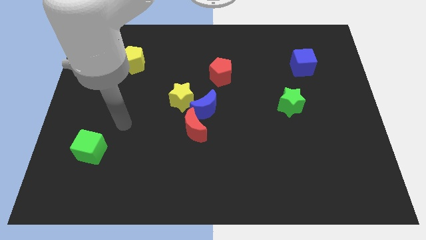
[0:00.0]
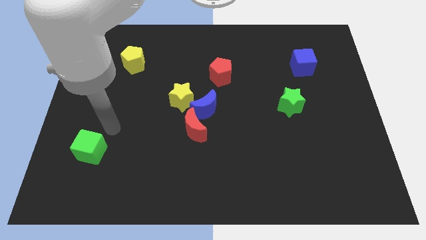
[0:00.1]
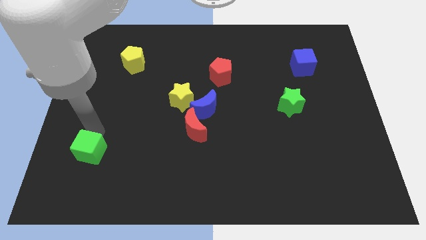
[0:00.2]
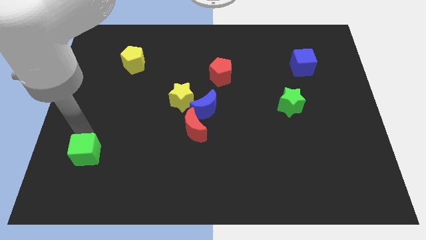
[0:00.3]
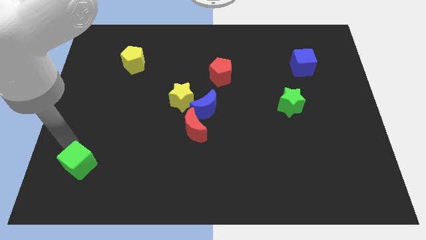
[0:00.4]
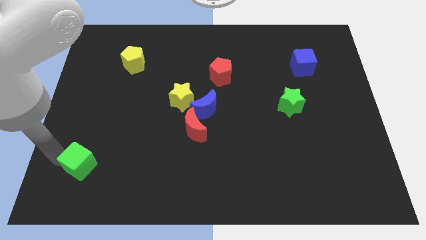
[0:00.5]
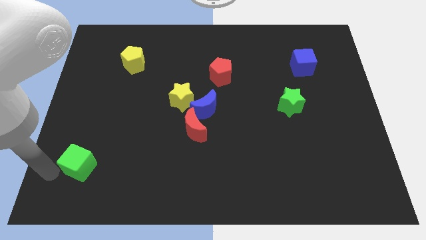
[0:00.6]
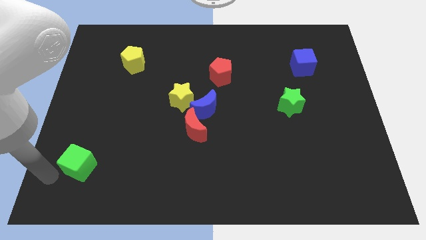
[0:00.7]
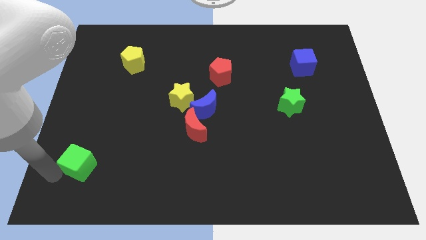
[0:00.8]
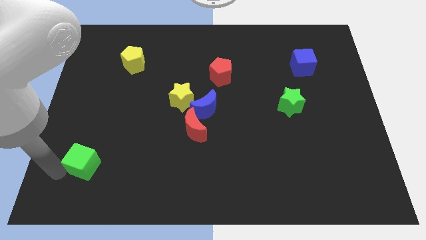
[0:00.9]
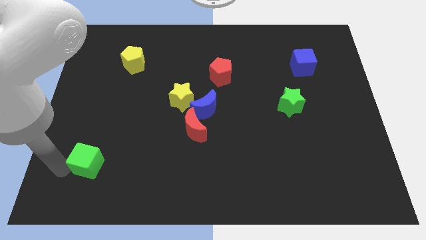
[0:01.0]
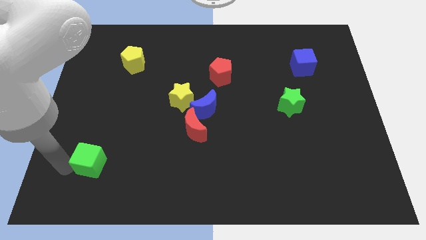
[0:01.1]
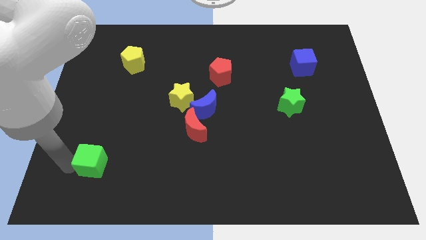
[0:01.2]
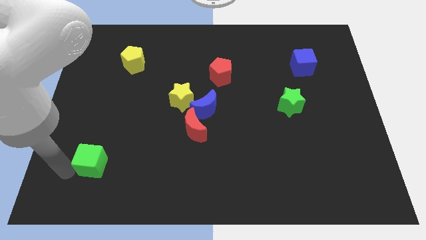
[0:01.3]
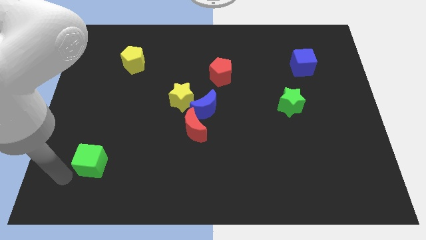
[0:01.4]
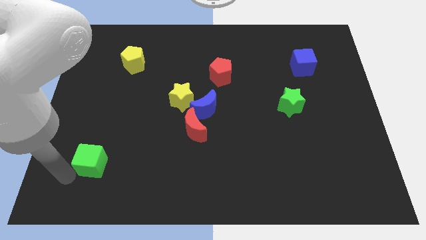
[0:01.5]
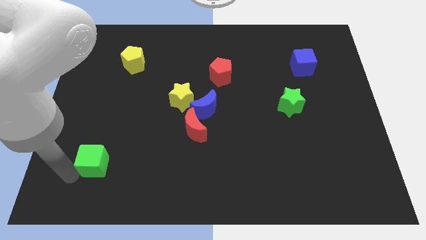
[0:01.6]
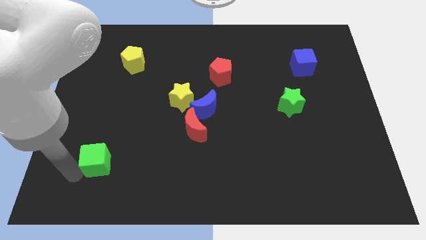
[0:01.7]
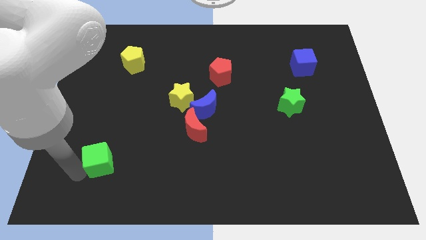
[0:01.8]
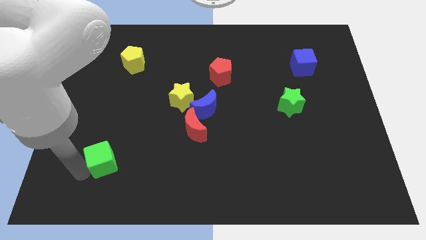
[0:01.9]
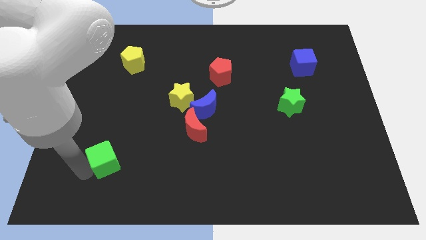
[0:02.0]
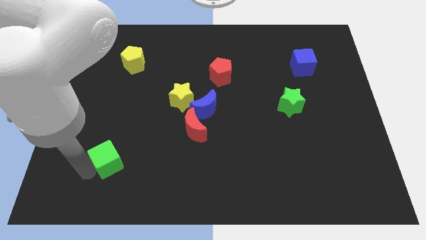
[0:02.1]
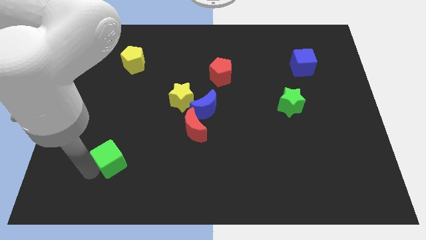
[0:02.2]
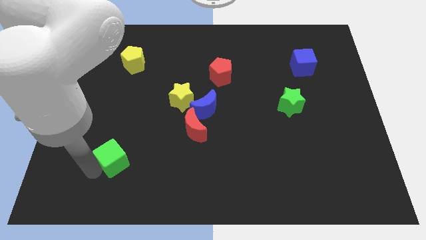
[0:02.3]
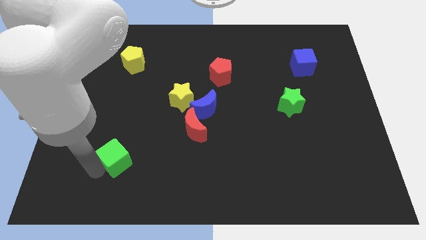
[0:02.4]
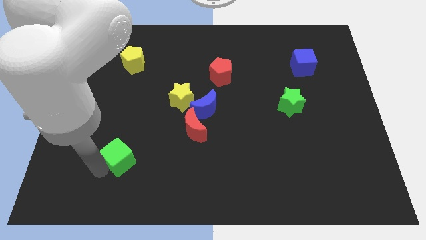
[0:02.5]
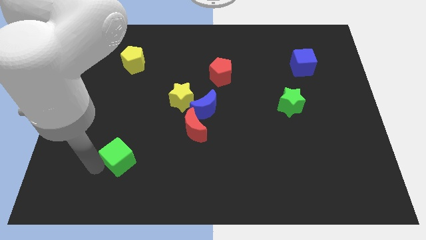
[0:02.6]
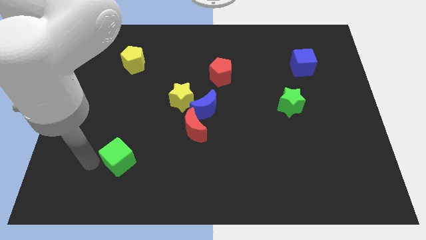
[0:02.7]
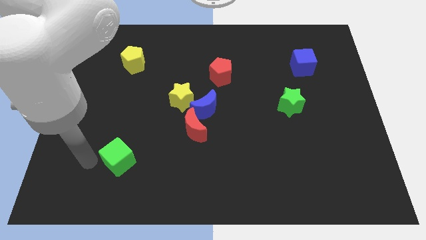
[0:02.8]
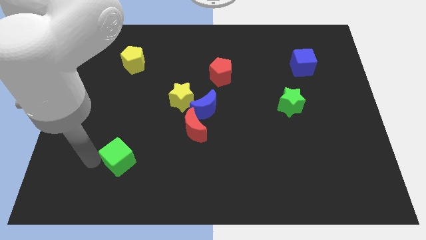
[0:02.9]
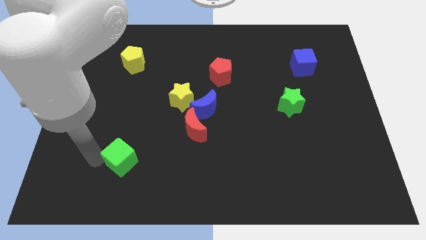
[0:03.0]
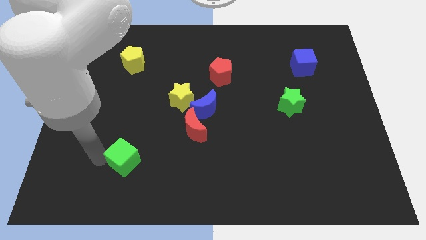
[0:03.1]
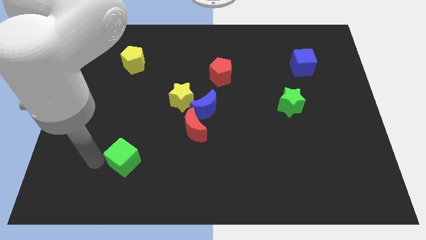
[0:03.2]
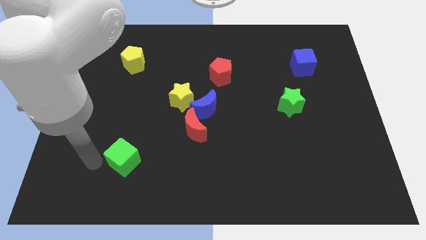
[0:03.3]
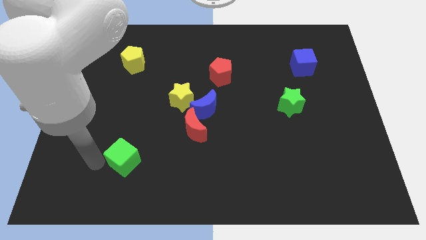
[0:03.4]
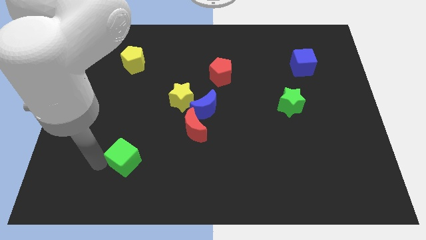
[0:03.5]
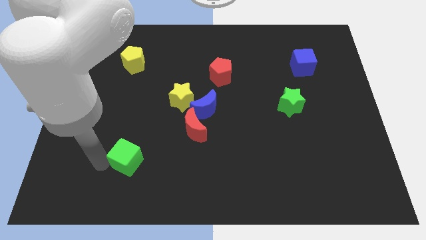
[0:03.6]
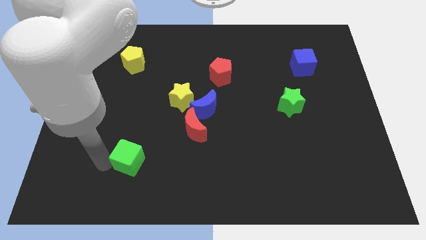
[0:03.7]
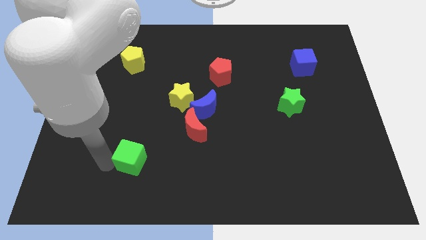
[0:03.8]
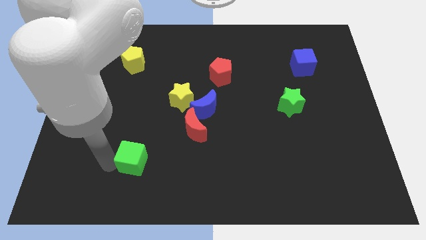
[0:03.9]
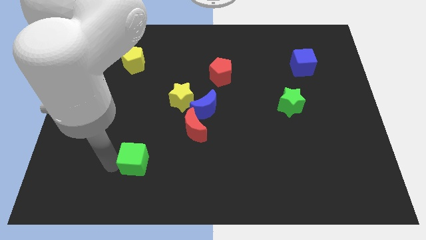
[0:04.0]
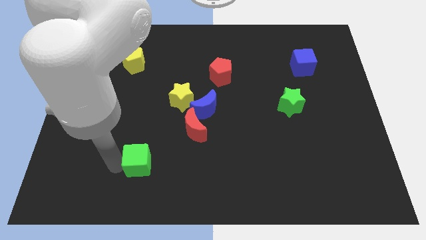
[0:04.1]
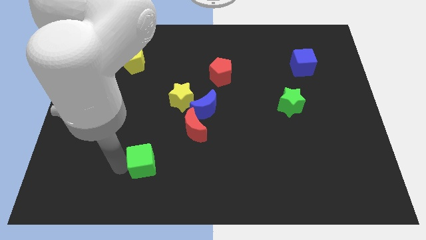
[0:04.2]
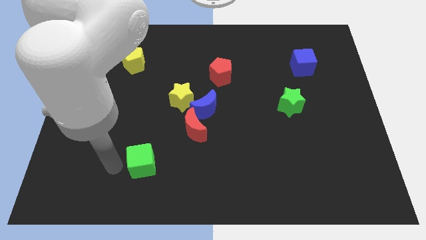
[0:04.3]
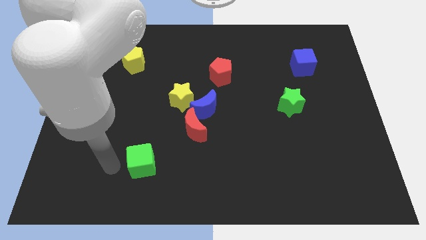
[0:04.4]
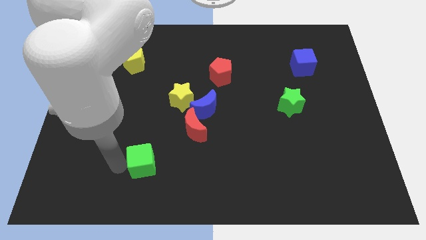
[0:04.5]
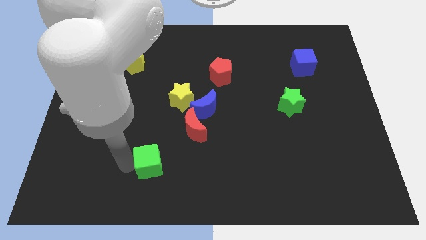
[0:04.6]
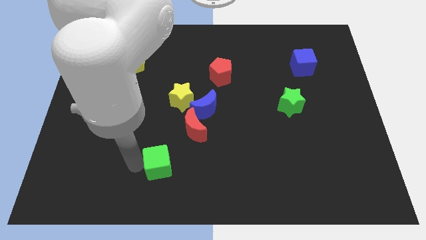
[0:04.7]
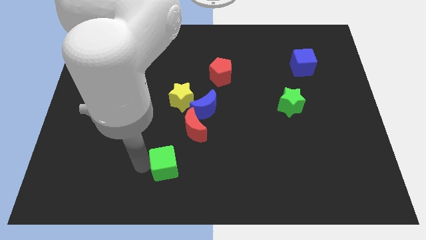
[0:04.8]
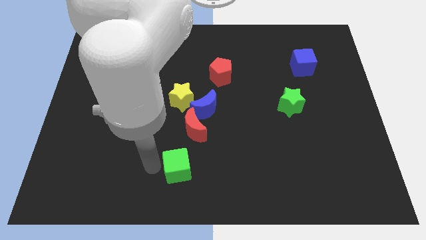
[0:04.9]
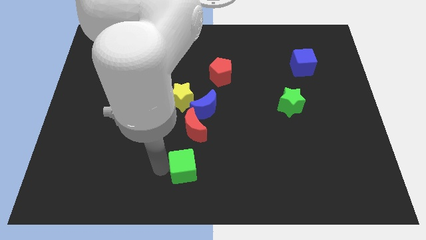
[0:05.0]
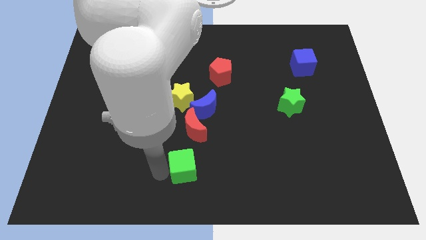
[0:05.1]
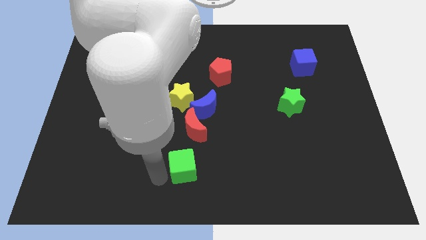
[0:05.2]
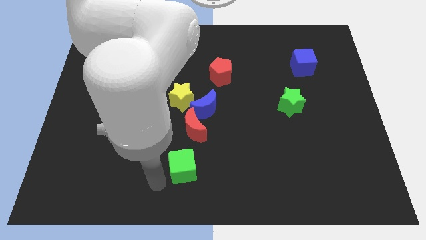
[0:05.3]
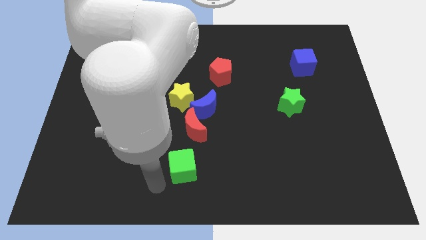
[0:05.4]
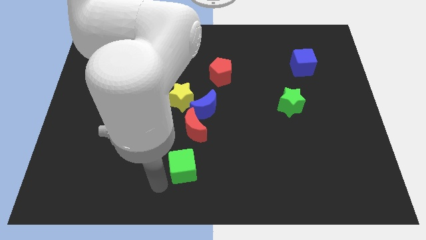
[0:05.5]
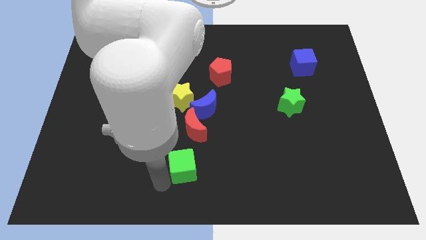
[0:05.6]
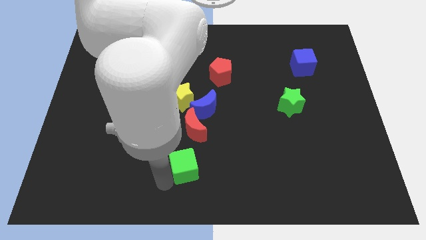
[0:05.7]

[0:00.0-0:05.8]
slide the green cube to the right

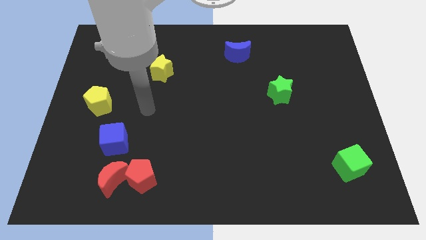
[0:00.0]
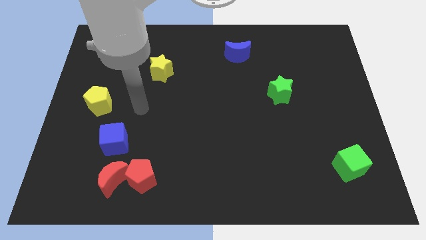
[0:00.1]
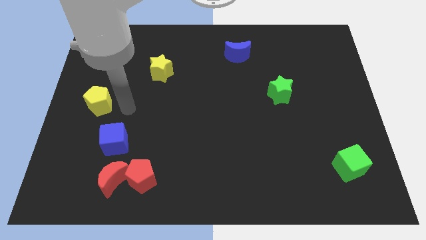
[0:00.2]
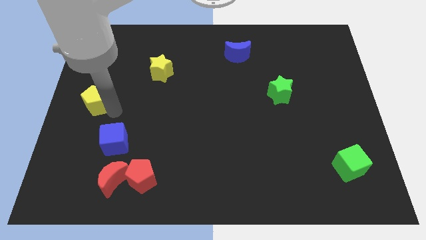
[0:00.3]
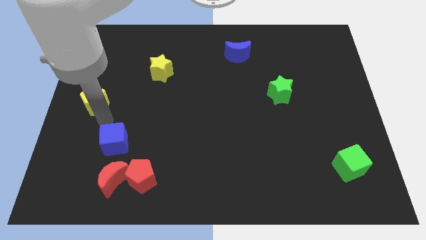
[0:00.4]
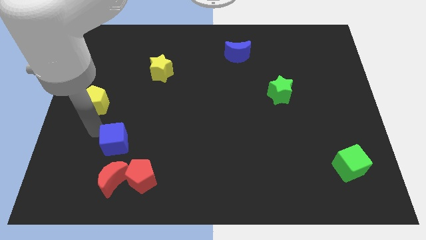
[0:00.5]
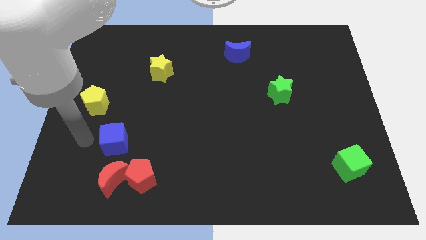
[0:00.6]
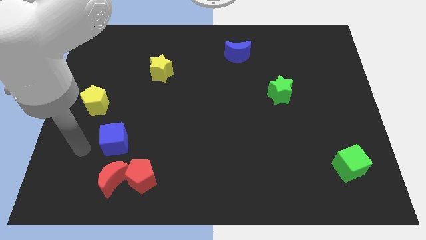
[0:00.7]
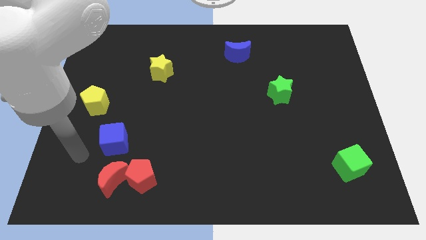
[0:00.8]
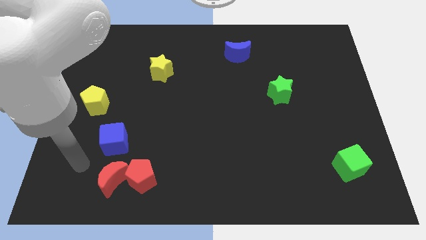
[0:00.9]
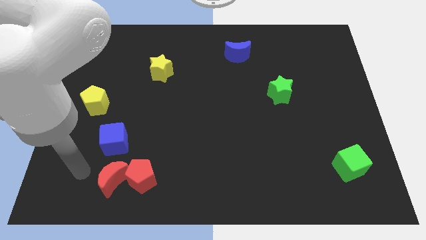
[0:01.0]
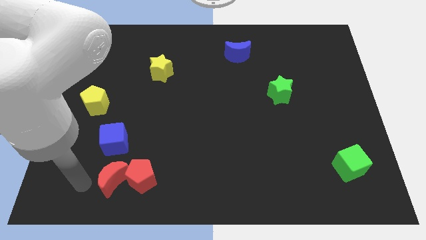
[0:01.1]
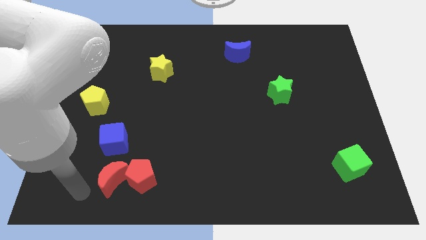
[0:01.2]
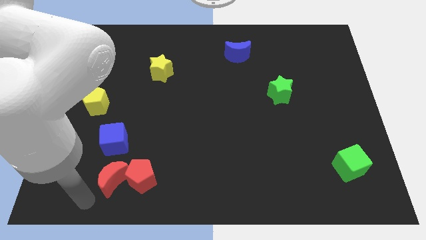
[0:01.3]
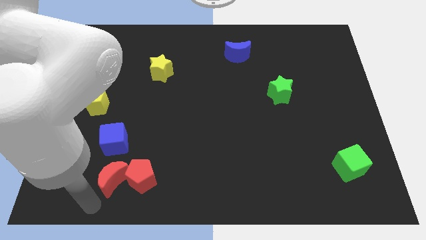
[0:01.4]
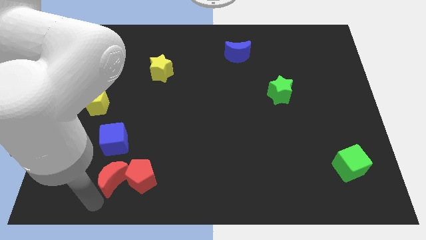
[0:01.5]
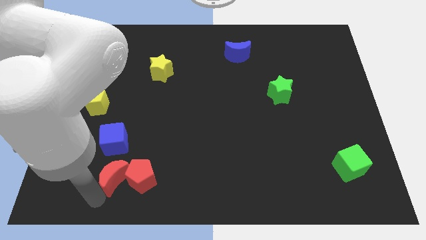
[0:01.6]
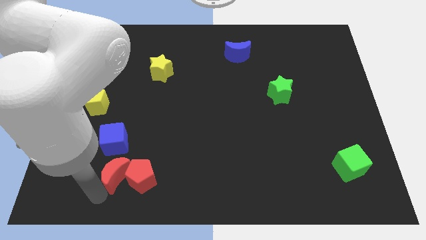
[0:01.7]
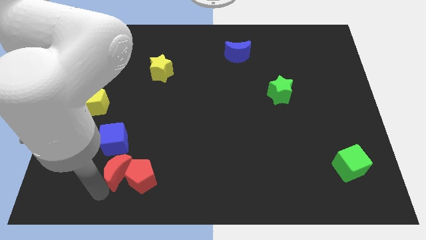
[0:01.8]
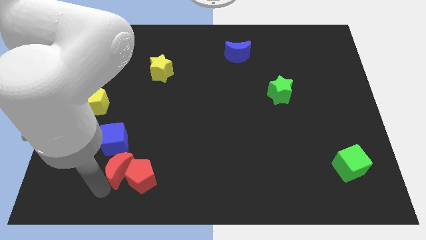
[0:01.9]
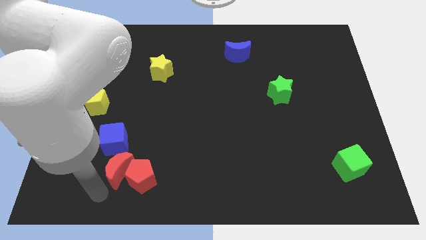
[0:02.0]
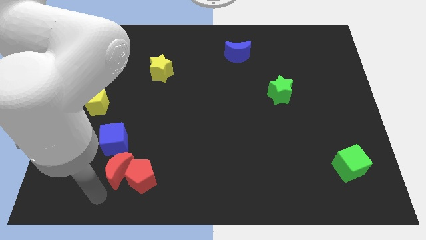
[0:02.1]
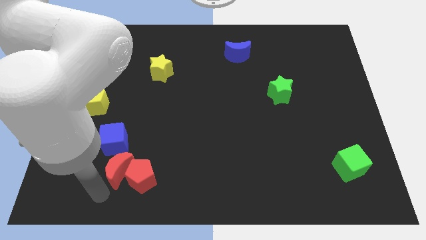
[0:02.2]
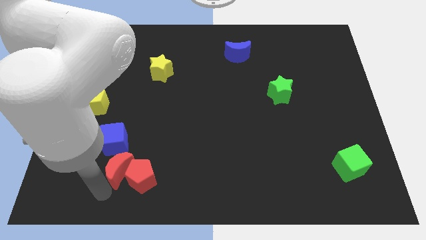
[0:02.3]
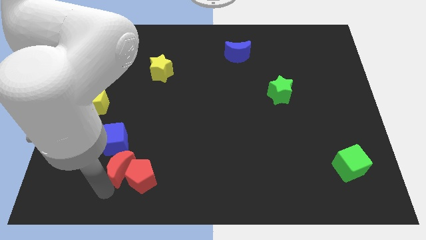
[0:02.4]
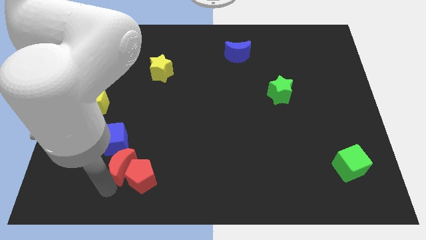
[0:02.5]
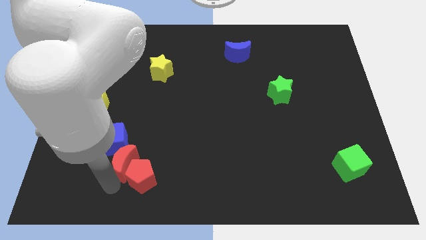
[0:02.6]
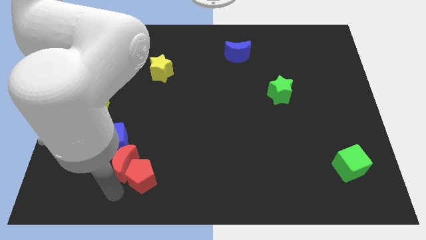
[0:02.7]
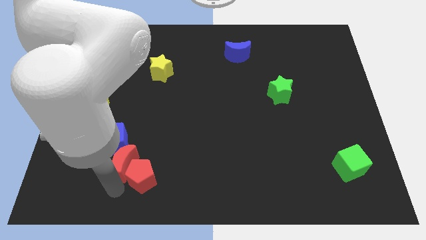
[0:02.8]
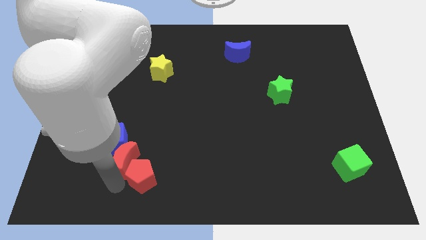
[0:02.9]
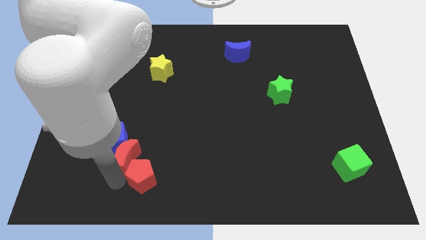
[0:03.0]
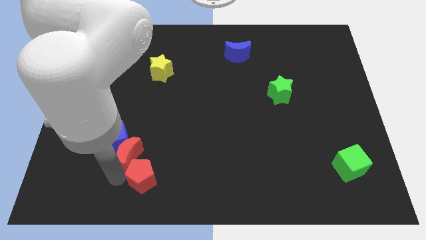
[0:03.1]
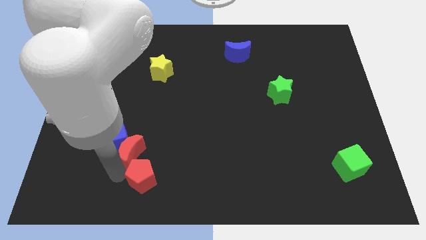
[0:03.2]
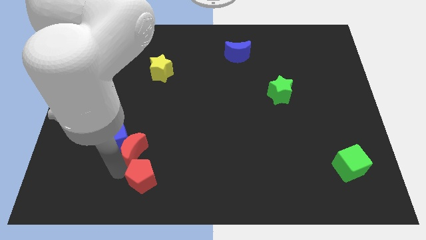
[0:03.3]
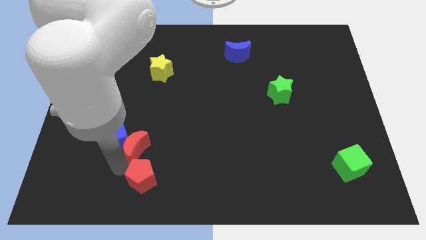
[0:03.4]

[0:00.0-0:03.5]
slightly slide the red moon up
